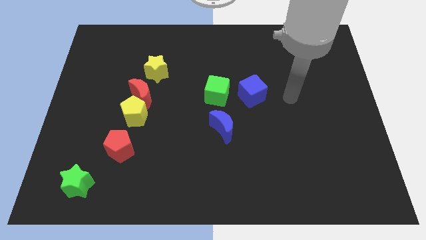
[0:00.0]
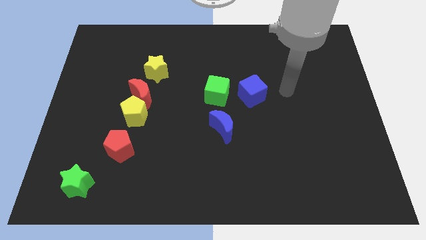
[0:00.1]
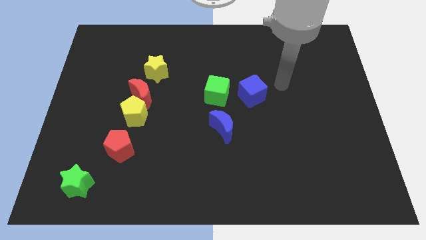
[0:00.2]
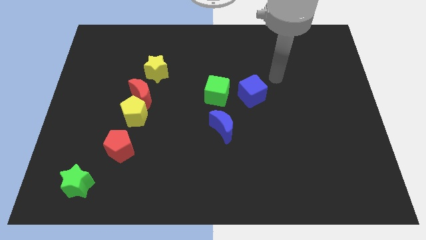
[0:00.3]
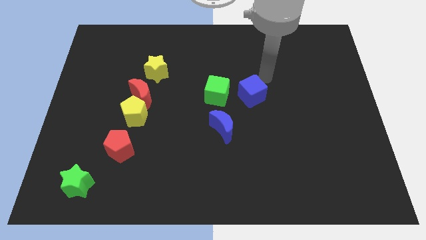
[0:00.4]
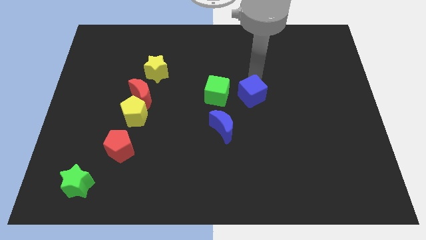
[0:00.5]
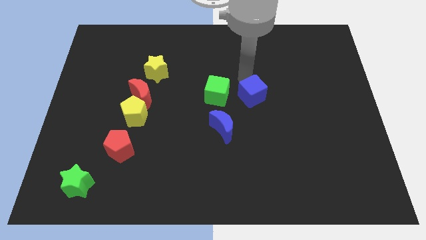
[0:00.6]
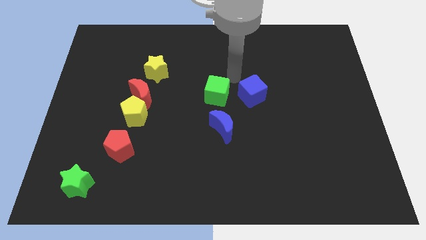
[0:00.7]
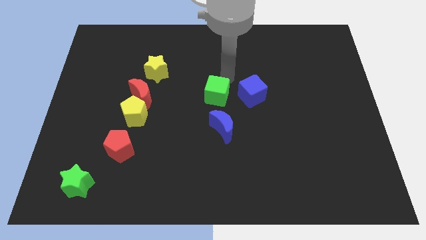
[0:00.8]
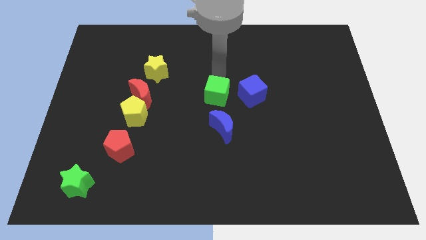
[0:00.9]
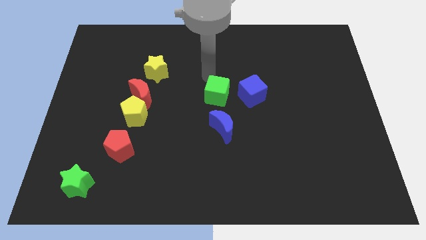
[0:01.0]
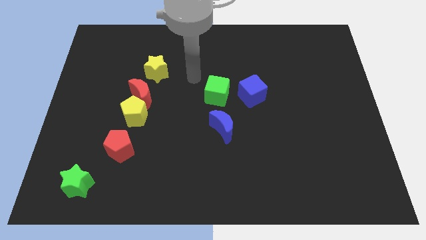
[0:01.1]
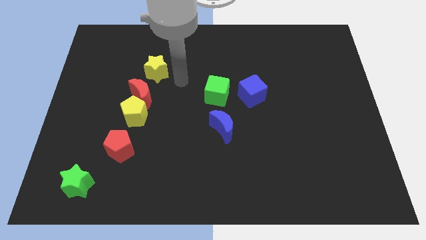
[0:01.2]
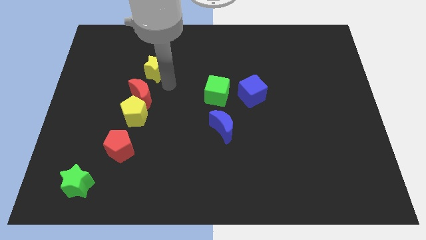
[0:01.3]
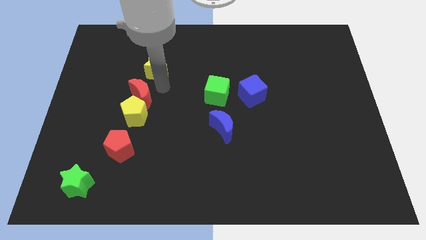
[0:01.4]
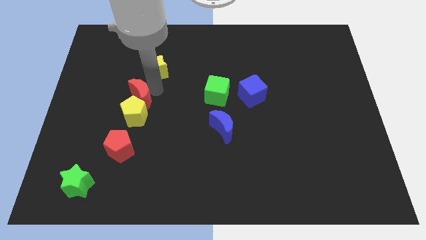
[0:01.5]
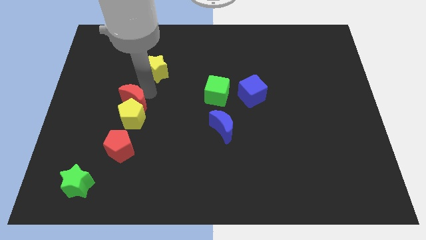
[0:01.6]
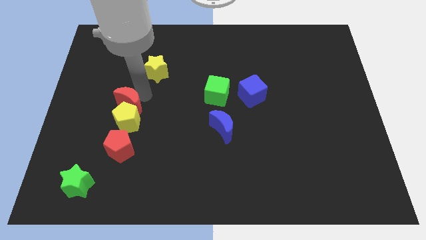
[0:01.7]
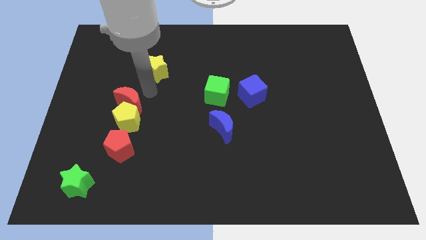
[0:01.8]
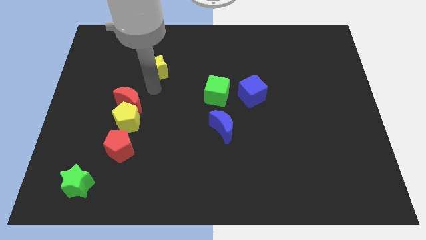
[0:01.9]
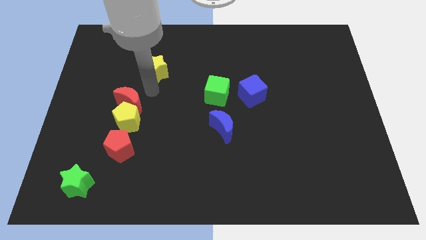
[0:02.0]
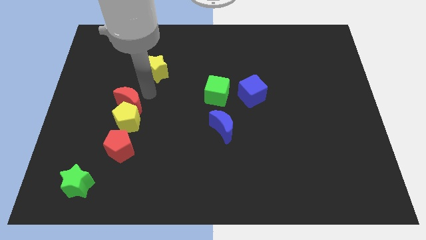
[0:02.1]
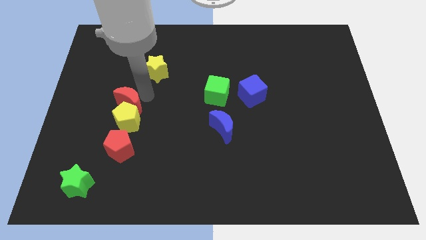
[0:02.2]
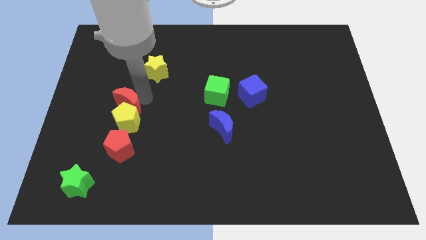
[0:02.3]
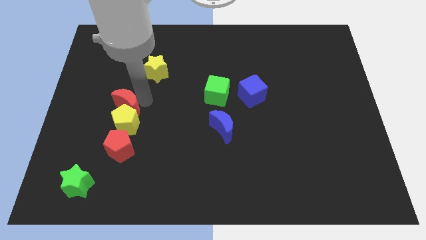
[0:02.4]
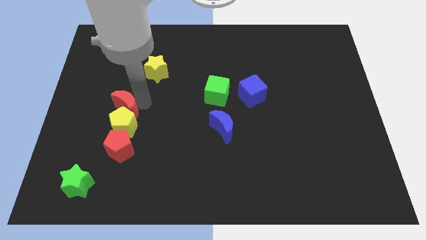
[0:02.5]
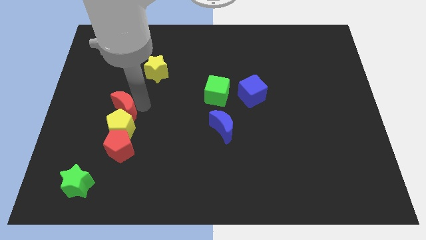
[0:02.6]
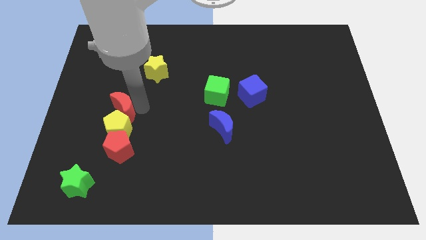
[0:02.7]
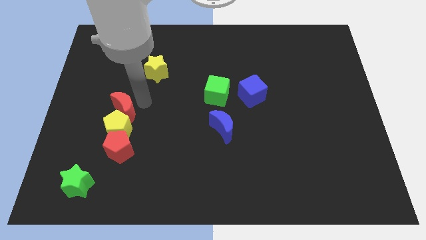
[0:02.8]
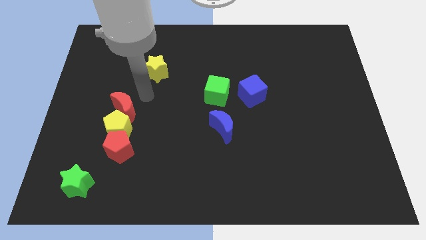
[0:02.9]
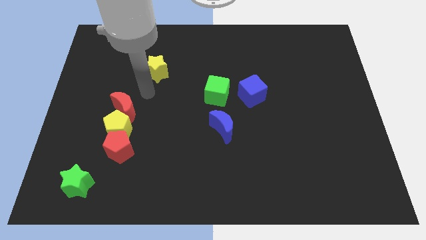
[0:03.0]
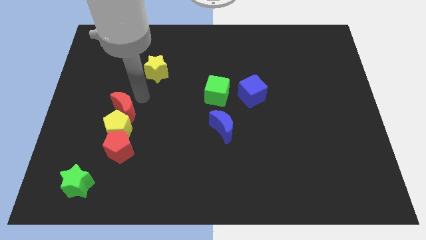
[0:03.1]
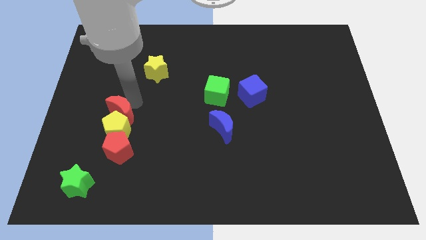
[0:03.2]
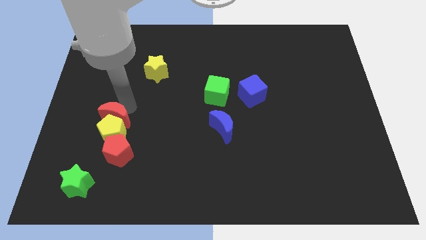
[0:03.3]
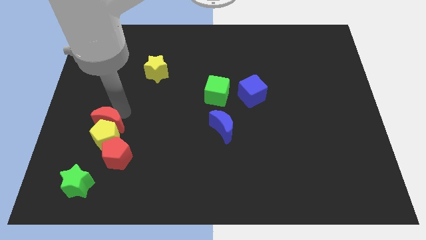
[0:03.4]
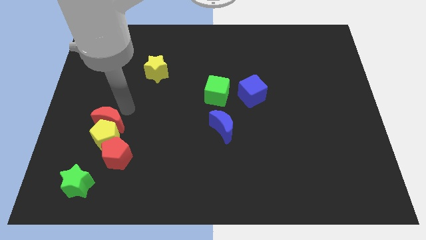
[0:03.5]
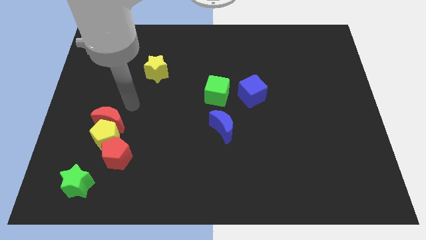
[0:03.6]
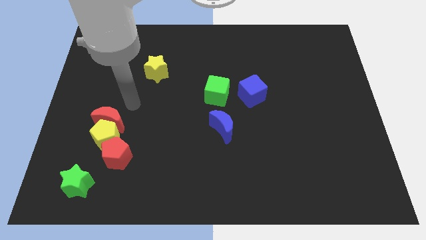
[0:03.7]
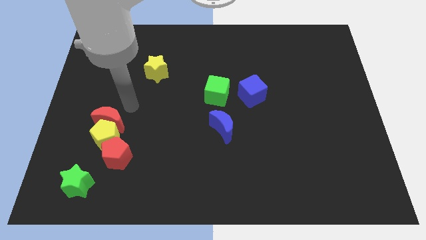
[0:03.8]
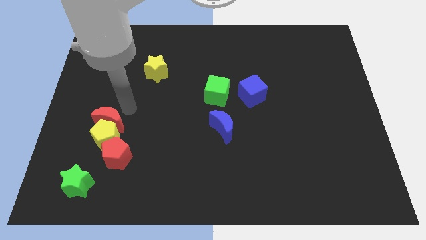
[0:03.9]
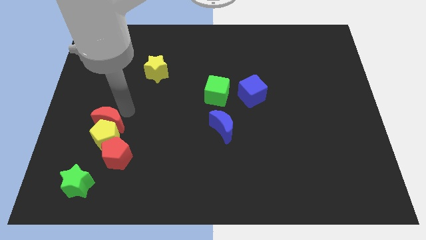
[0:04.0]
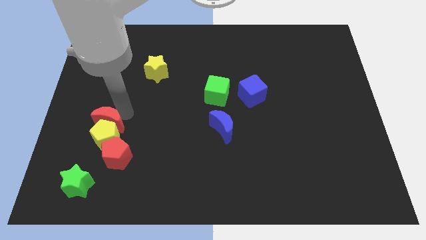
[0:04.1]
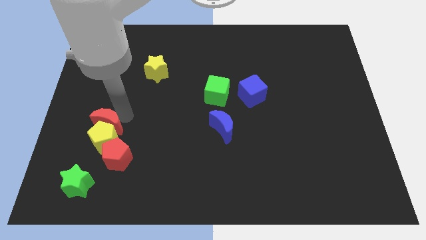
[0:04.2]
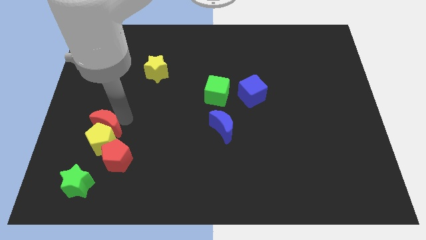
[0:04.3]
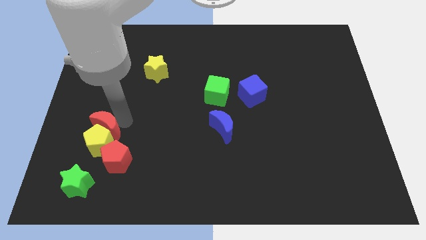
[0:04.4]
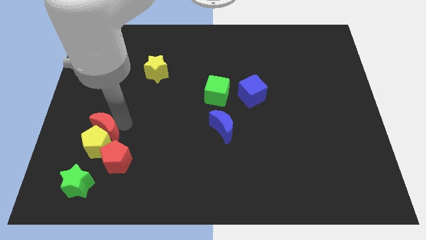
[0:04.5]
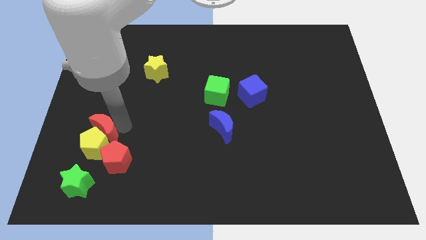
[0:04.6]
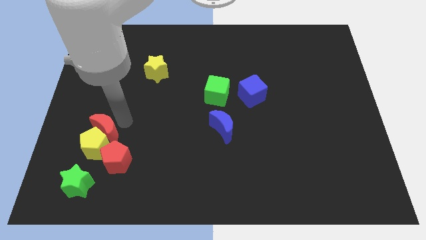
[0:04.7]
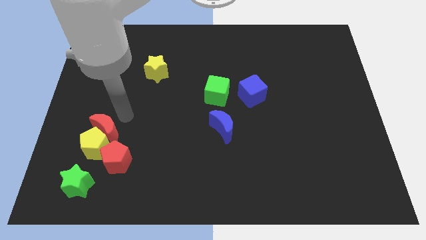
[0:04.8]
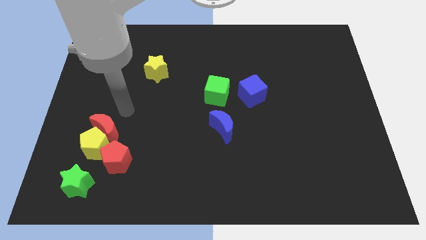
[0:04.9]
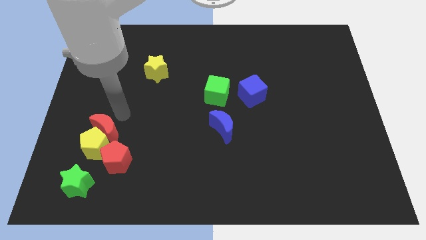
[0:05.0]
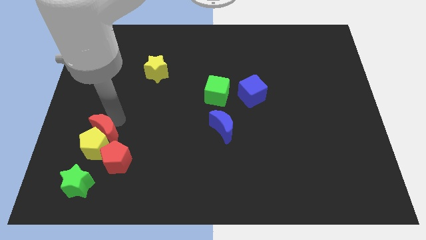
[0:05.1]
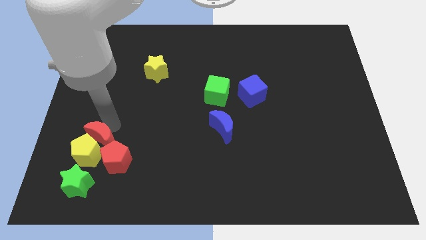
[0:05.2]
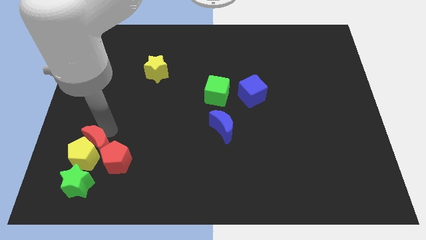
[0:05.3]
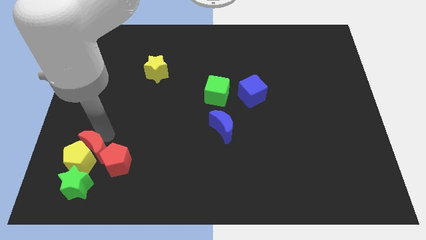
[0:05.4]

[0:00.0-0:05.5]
move the red moon away from the yellow pentagon and yellow star

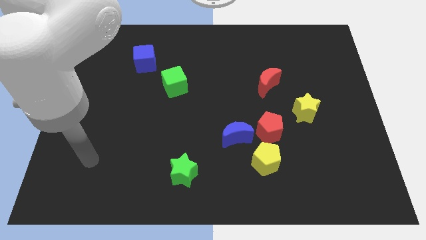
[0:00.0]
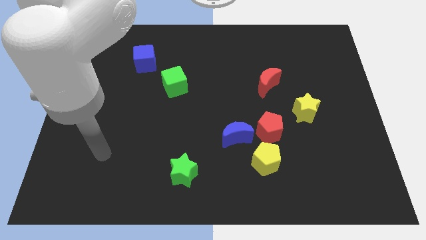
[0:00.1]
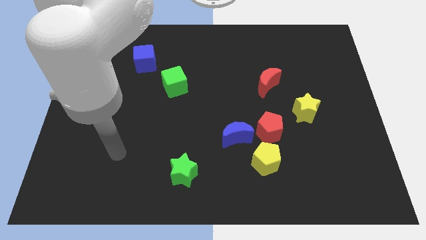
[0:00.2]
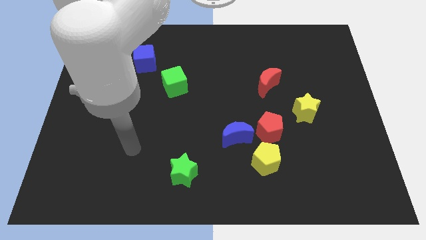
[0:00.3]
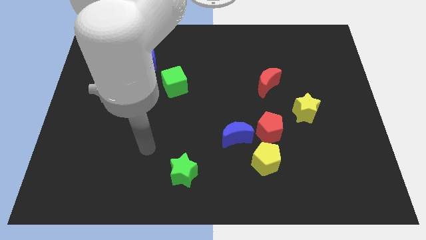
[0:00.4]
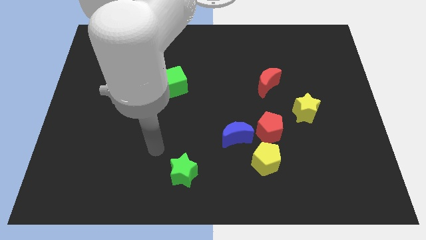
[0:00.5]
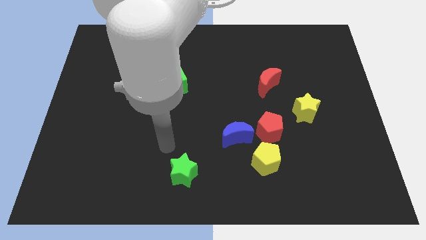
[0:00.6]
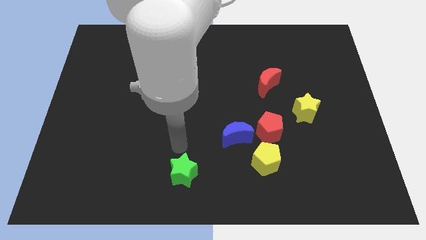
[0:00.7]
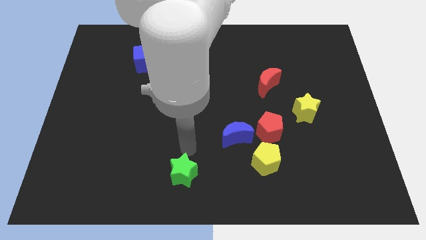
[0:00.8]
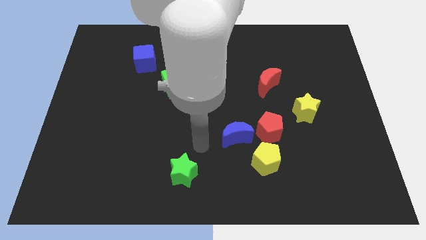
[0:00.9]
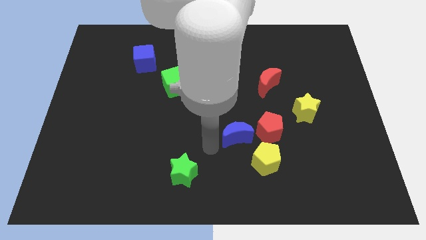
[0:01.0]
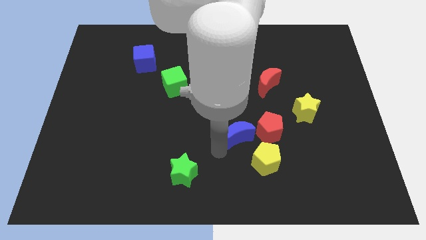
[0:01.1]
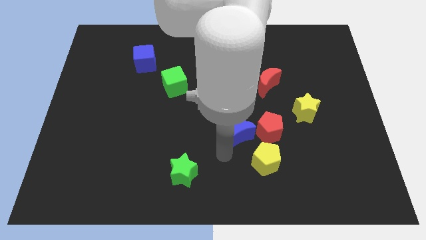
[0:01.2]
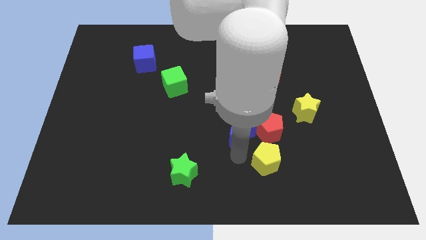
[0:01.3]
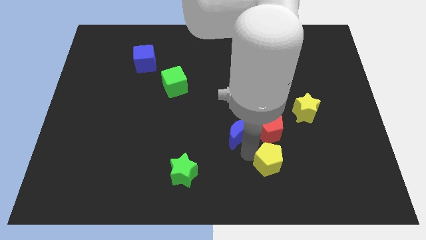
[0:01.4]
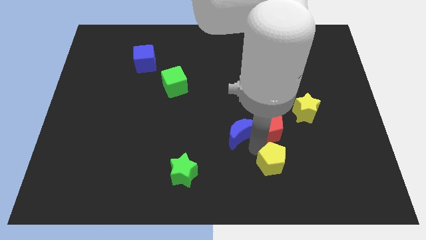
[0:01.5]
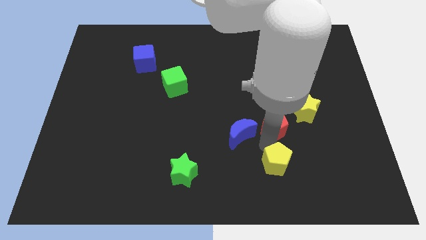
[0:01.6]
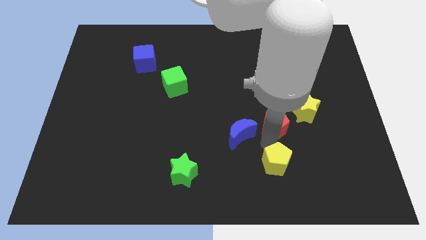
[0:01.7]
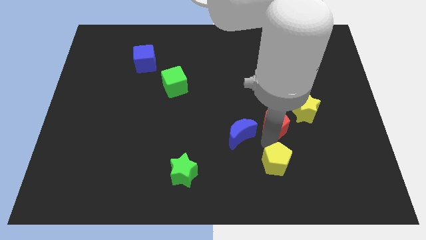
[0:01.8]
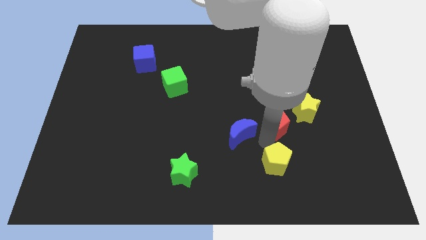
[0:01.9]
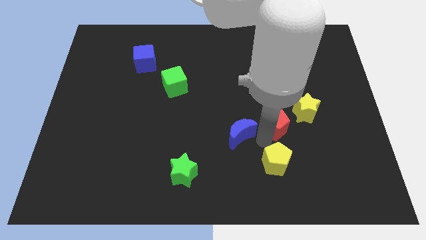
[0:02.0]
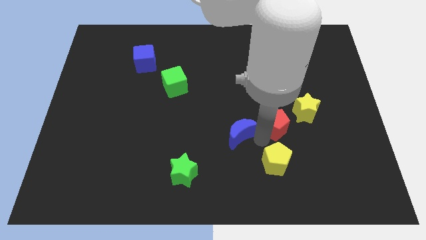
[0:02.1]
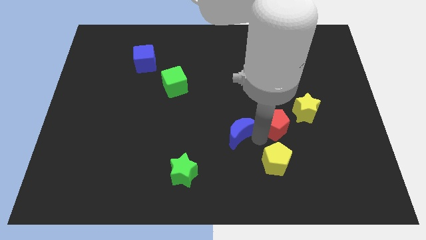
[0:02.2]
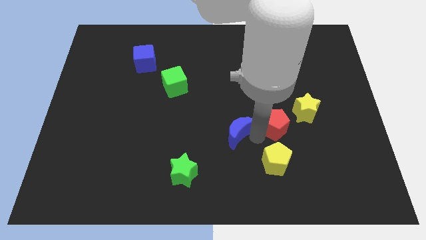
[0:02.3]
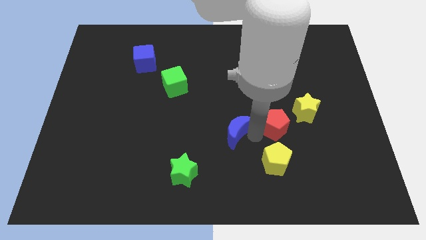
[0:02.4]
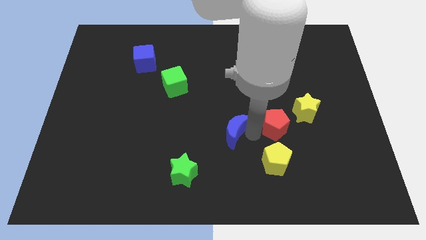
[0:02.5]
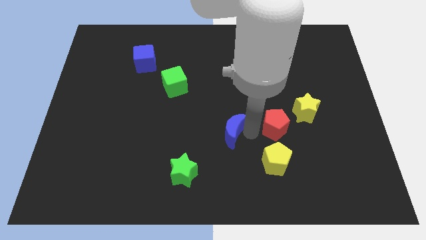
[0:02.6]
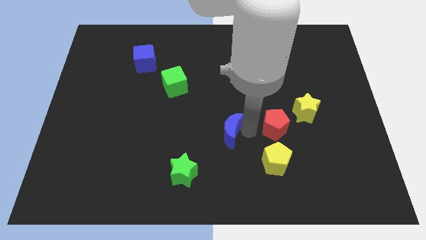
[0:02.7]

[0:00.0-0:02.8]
pull the blue moon apart from the red pentagon and yellow pentagon

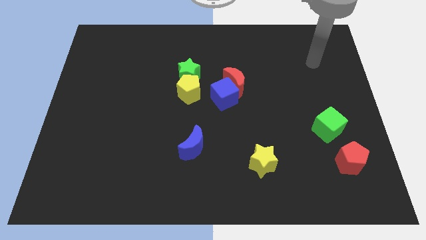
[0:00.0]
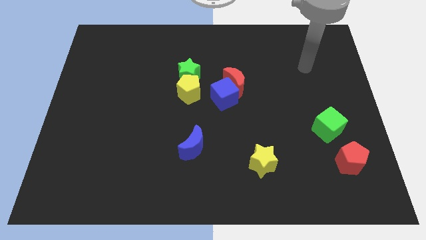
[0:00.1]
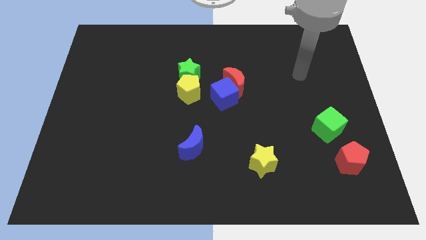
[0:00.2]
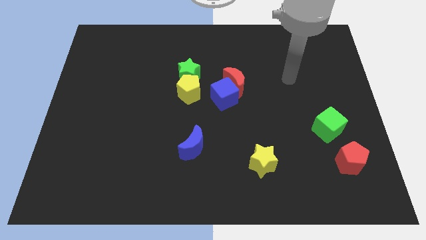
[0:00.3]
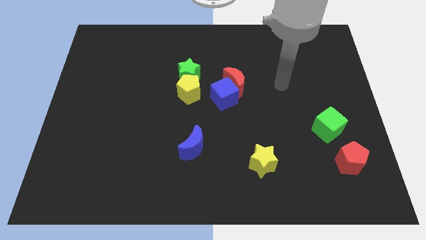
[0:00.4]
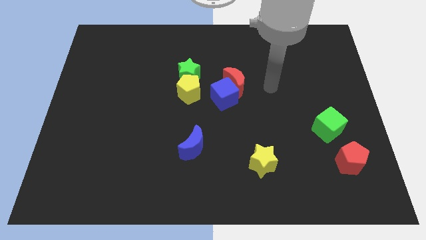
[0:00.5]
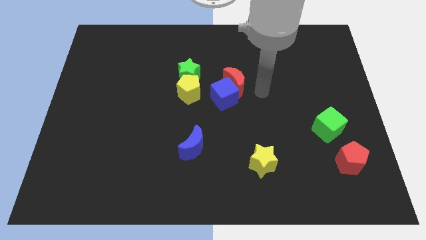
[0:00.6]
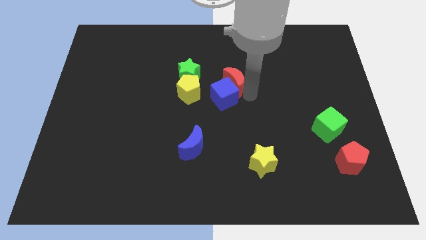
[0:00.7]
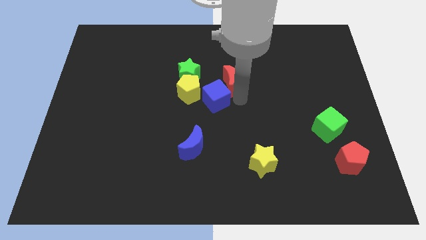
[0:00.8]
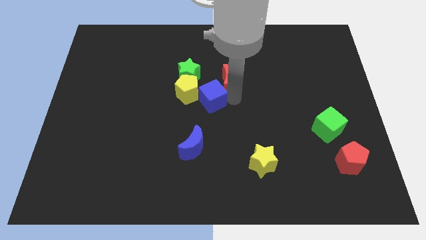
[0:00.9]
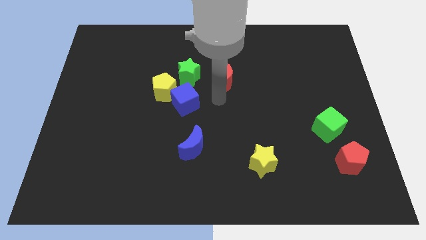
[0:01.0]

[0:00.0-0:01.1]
pull the red moon apart from the blue cube

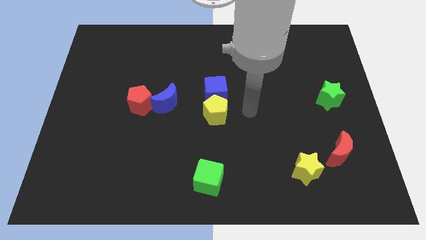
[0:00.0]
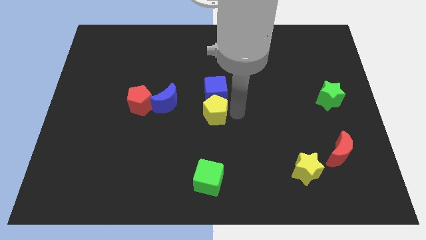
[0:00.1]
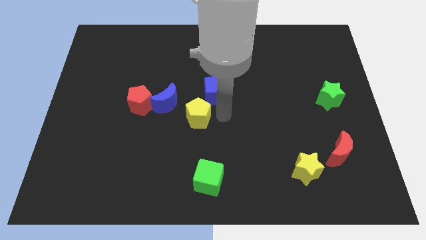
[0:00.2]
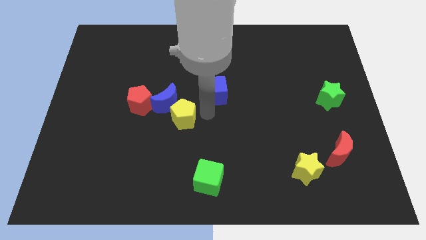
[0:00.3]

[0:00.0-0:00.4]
move the blue cube away from the yellow pentagon
